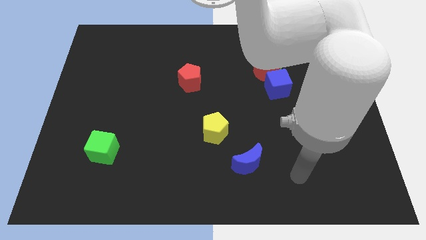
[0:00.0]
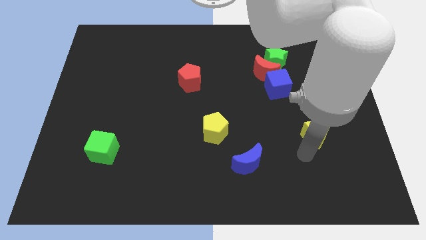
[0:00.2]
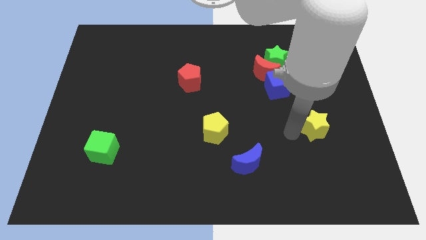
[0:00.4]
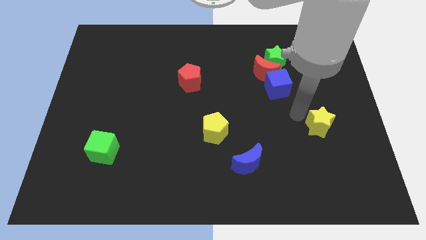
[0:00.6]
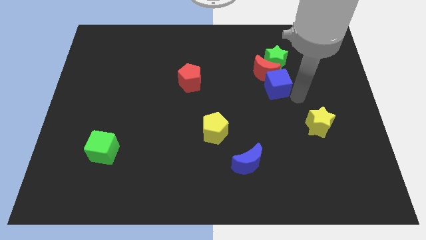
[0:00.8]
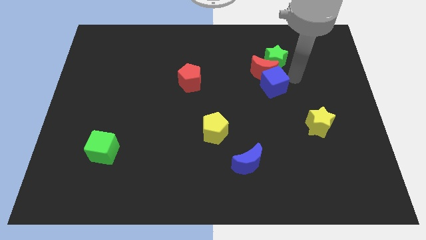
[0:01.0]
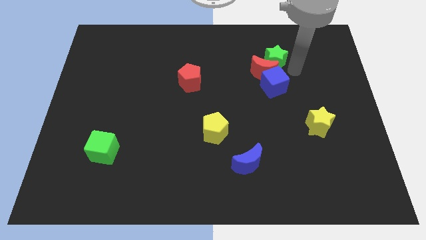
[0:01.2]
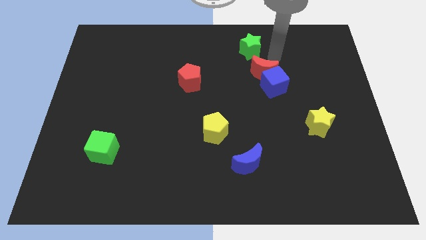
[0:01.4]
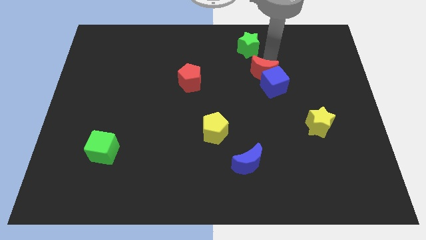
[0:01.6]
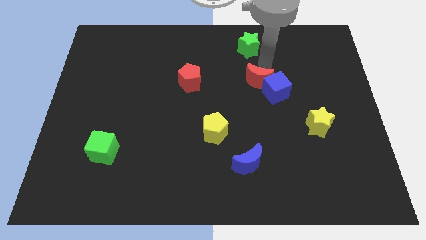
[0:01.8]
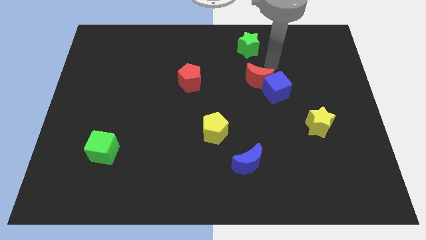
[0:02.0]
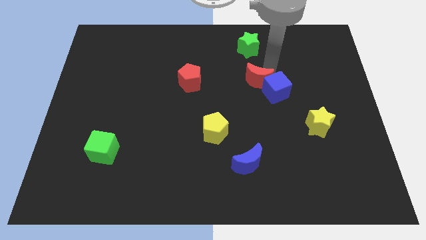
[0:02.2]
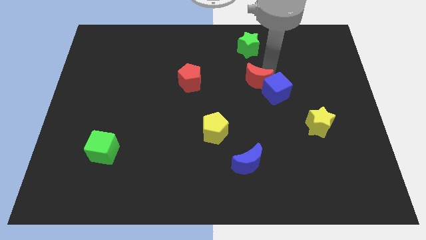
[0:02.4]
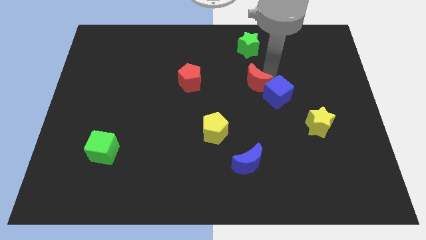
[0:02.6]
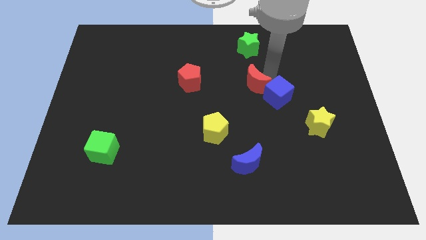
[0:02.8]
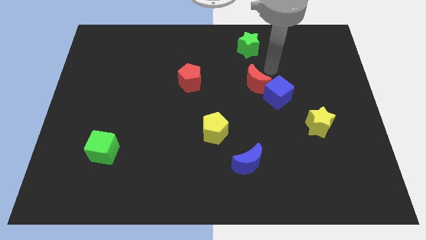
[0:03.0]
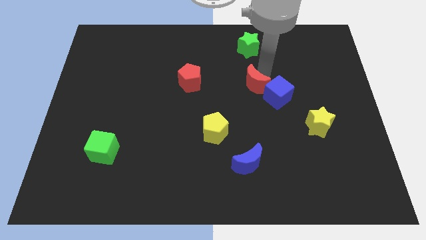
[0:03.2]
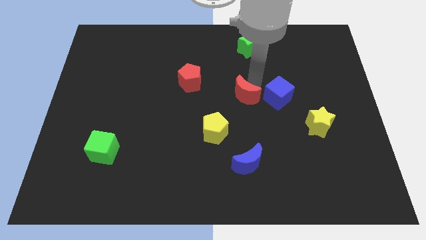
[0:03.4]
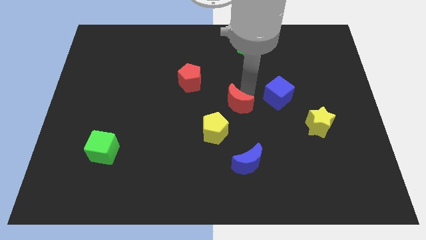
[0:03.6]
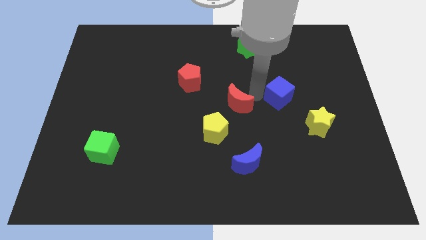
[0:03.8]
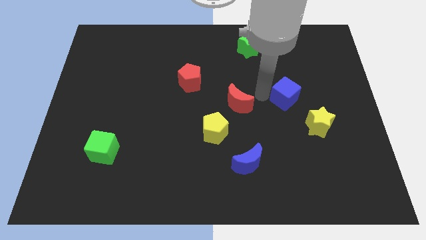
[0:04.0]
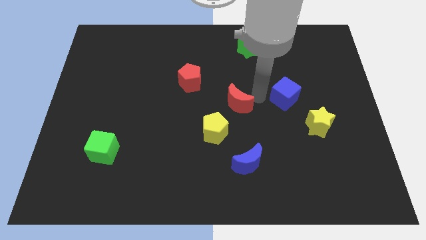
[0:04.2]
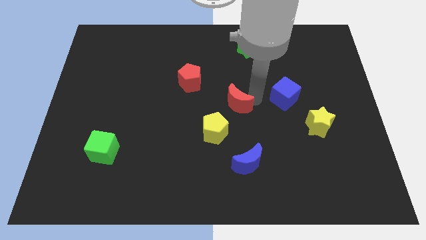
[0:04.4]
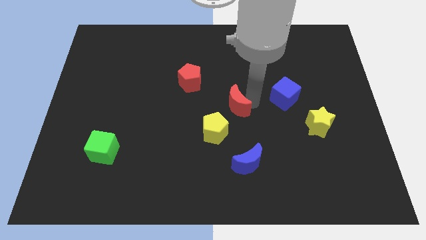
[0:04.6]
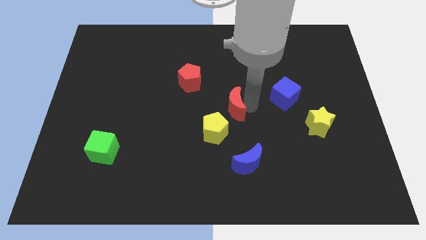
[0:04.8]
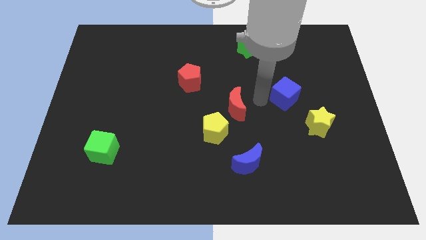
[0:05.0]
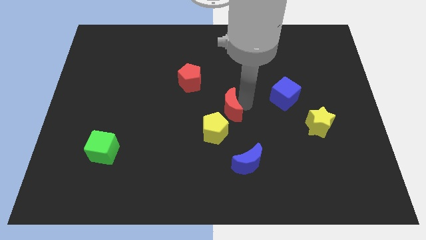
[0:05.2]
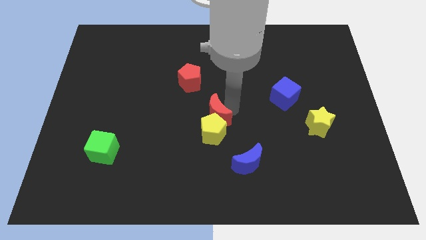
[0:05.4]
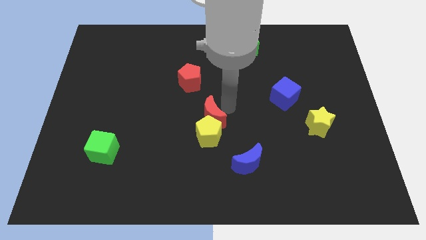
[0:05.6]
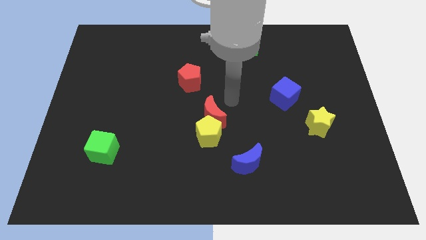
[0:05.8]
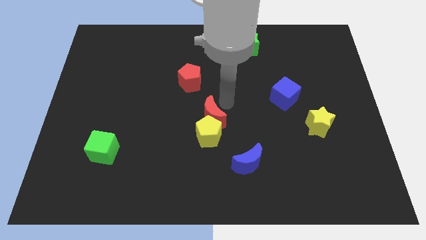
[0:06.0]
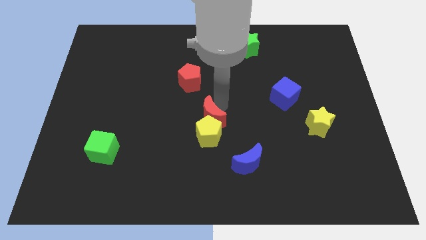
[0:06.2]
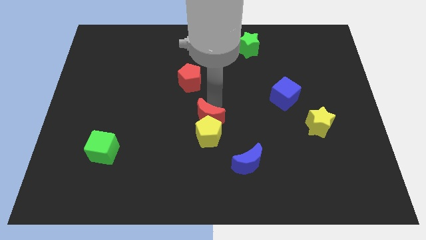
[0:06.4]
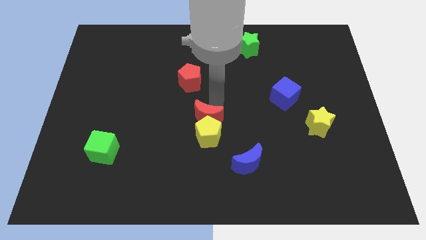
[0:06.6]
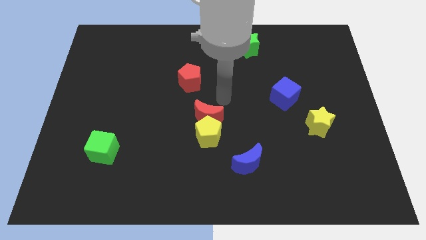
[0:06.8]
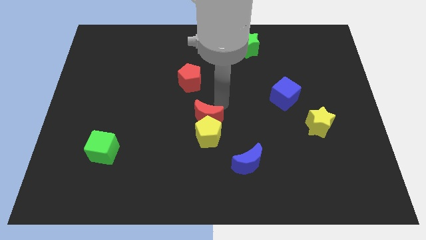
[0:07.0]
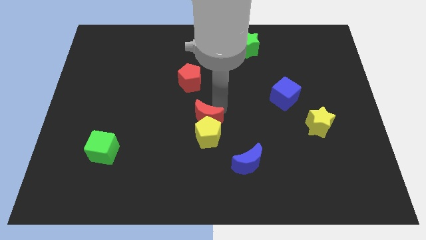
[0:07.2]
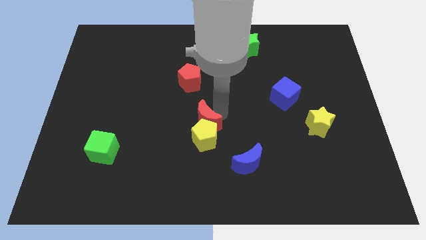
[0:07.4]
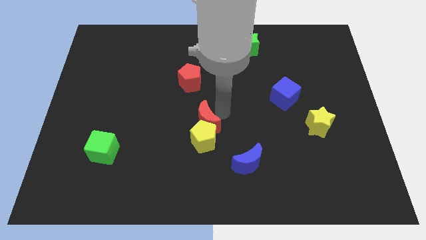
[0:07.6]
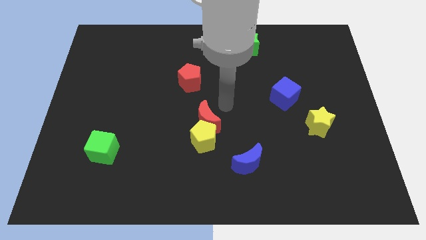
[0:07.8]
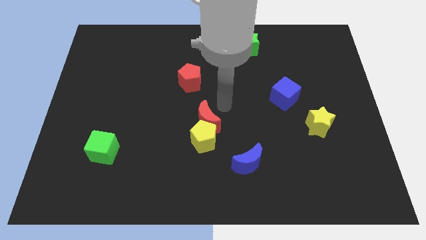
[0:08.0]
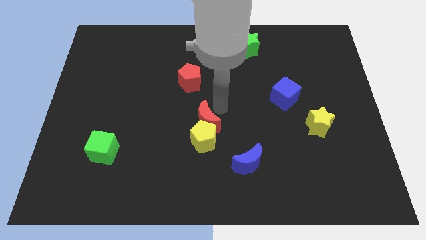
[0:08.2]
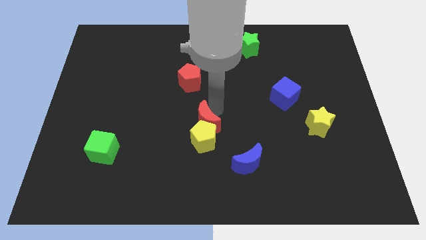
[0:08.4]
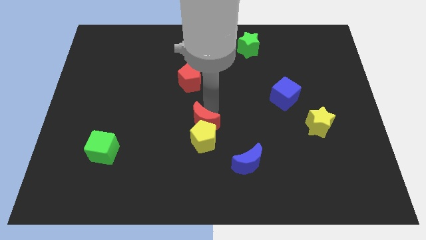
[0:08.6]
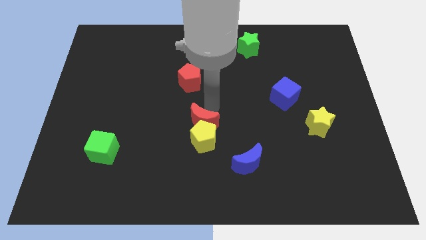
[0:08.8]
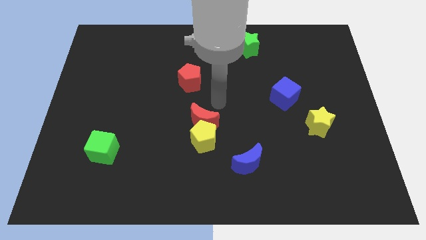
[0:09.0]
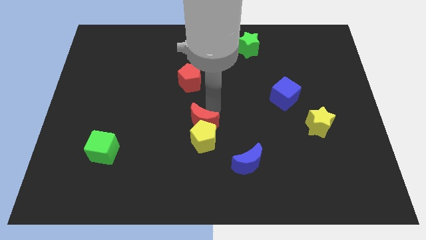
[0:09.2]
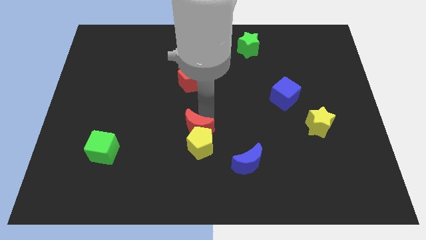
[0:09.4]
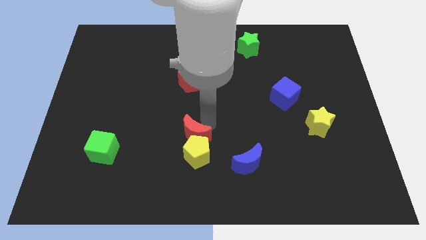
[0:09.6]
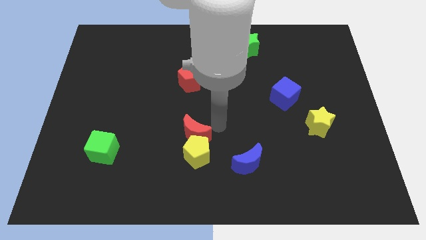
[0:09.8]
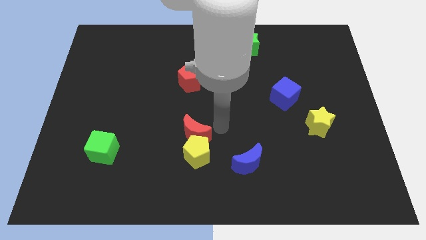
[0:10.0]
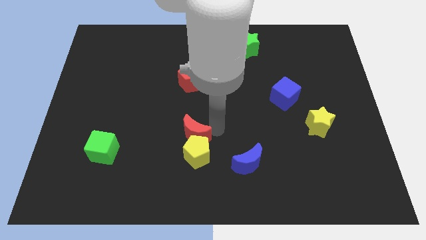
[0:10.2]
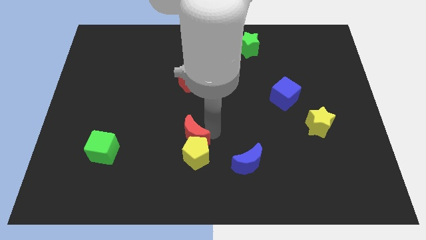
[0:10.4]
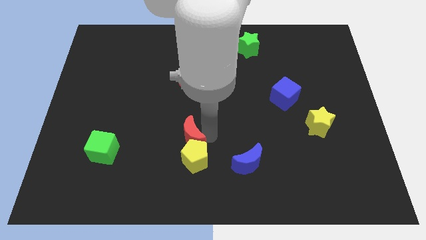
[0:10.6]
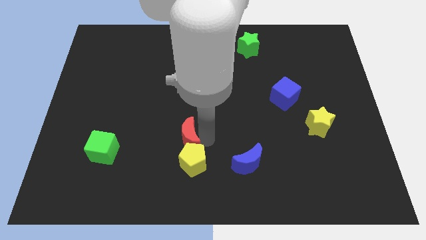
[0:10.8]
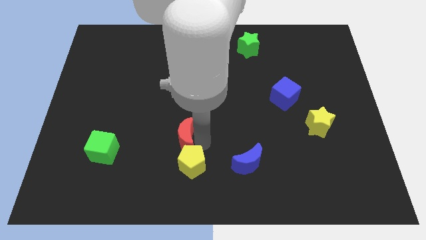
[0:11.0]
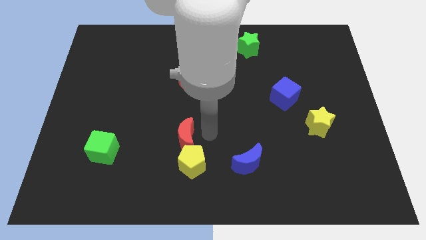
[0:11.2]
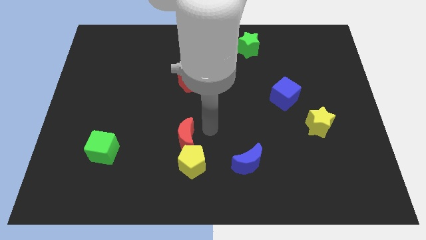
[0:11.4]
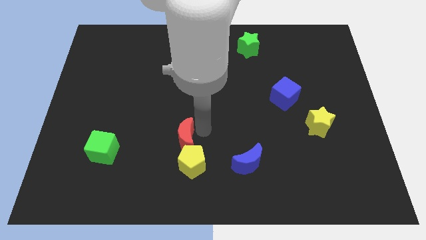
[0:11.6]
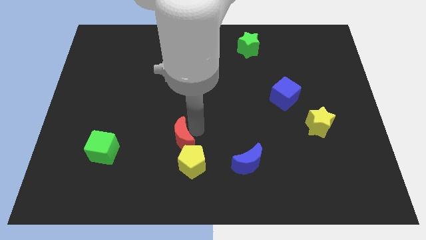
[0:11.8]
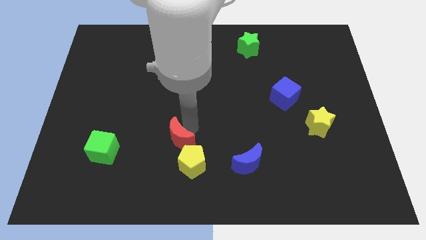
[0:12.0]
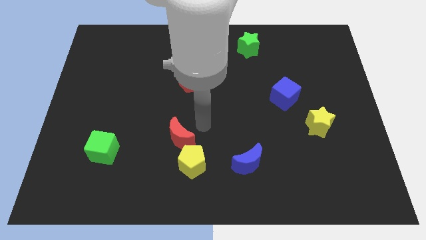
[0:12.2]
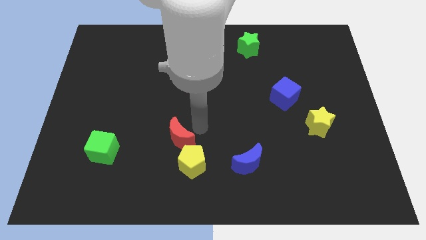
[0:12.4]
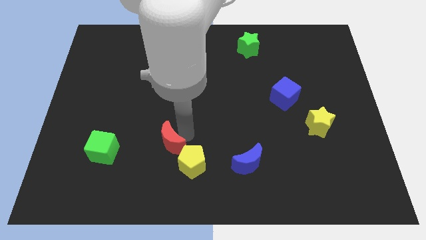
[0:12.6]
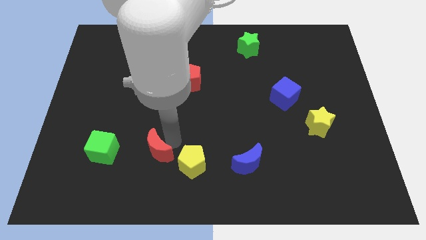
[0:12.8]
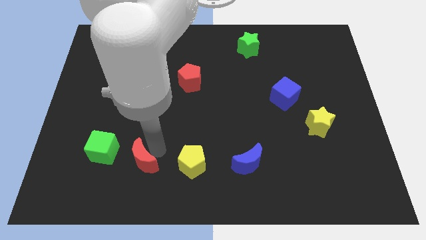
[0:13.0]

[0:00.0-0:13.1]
move the red moon to the bottom right side of the green cube

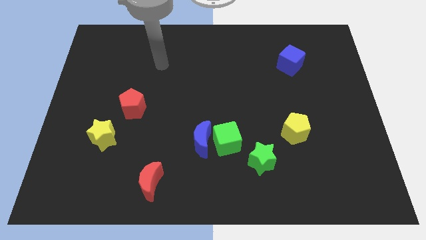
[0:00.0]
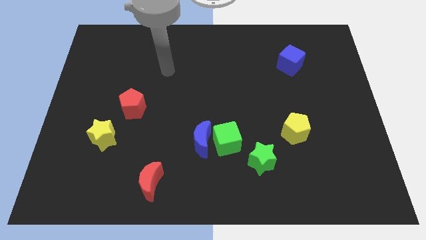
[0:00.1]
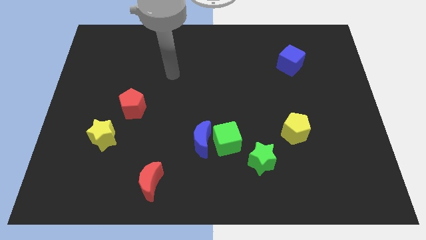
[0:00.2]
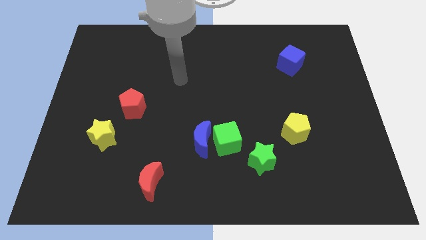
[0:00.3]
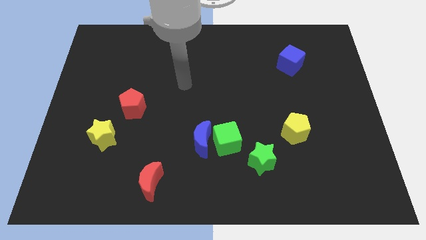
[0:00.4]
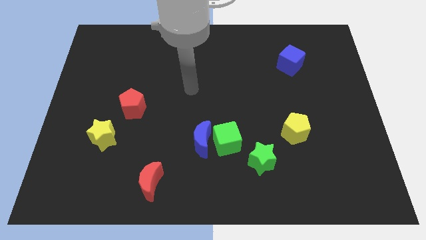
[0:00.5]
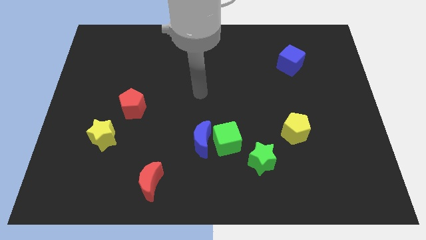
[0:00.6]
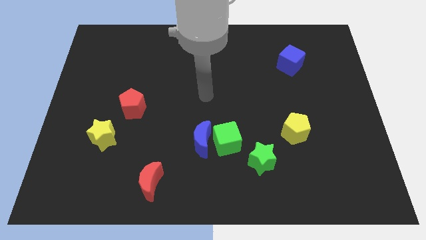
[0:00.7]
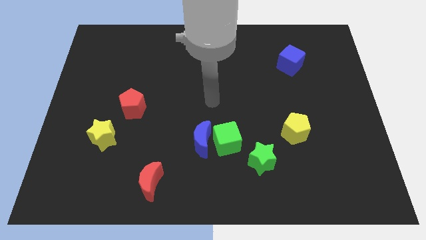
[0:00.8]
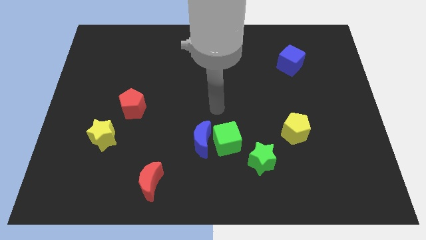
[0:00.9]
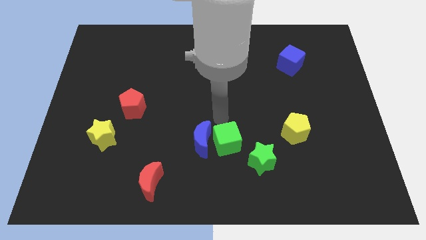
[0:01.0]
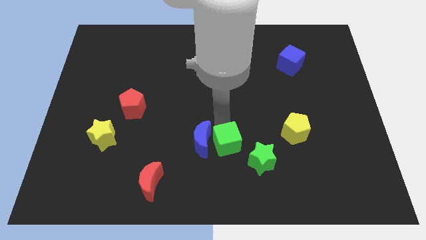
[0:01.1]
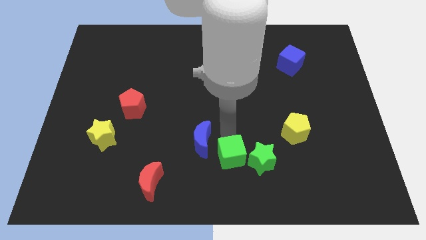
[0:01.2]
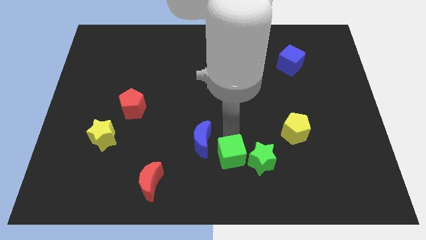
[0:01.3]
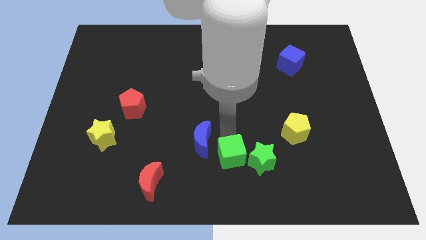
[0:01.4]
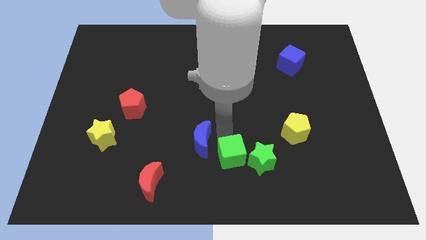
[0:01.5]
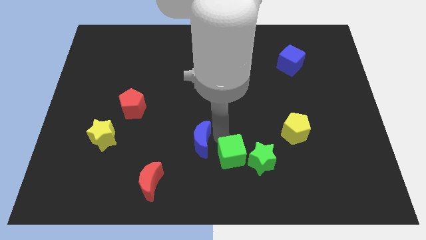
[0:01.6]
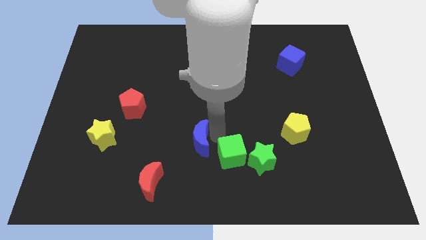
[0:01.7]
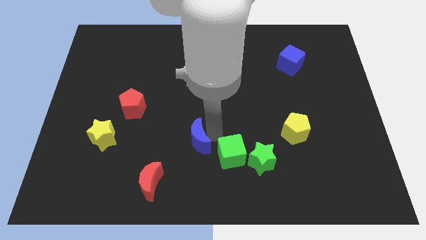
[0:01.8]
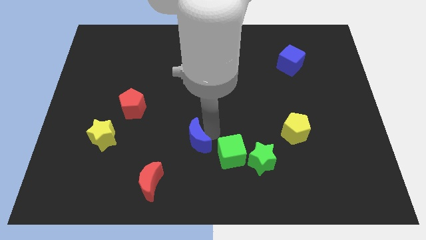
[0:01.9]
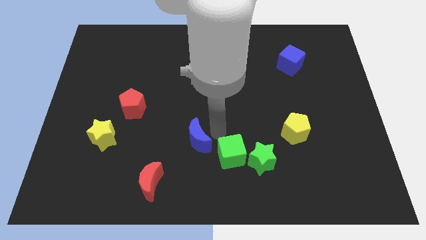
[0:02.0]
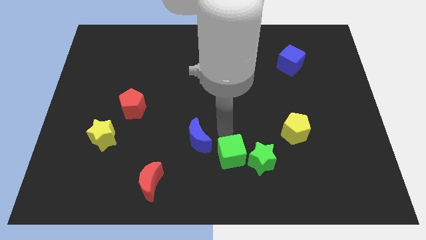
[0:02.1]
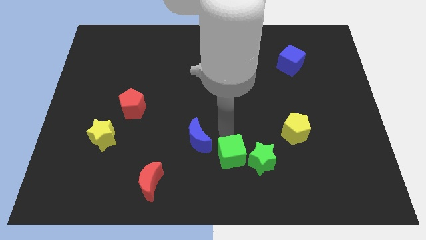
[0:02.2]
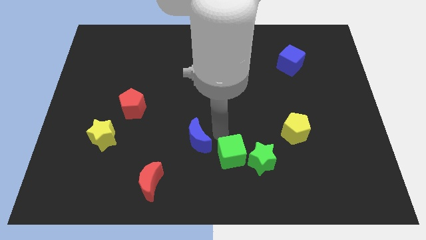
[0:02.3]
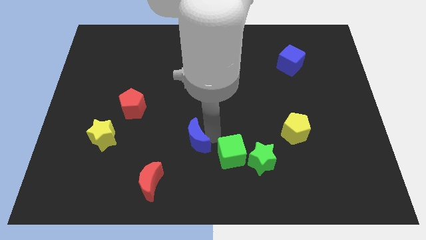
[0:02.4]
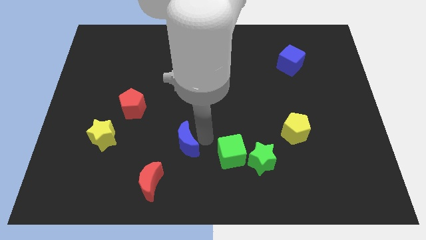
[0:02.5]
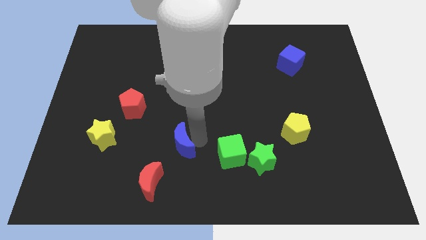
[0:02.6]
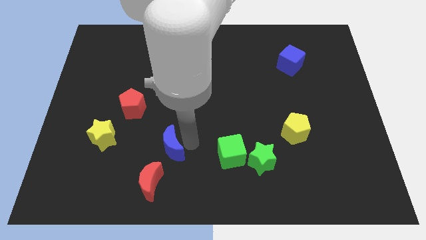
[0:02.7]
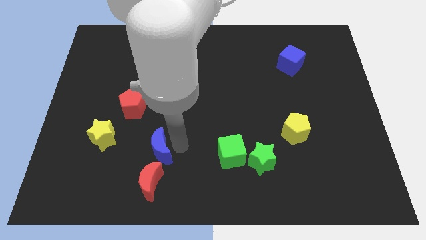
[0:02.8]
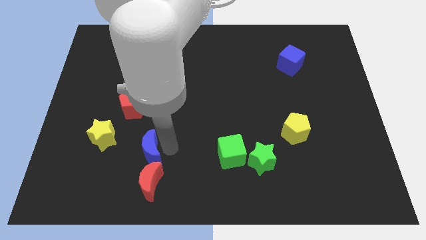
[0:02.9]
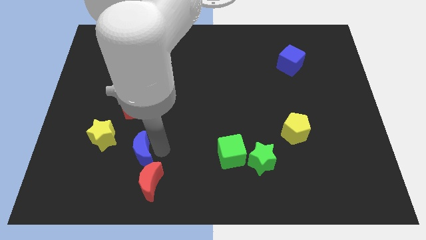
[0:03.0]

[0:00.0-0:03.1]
put the blue moon to the bottom right side of the yellow star
